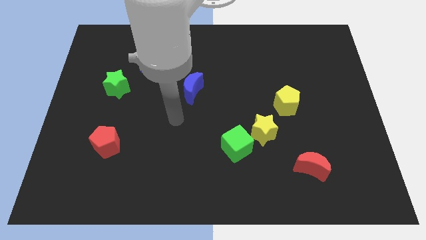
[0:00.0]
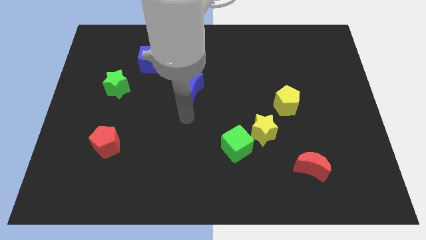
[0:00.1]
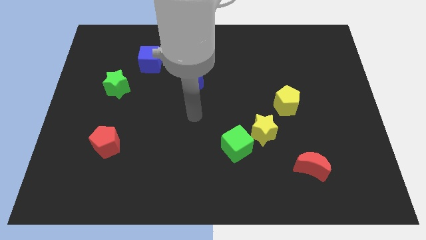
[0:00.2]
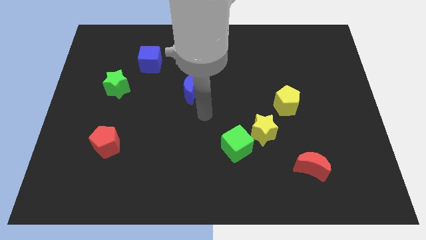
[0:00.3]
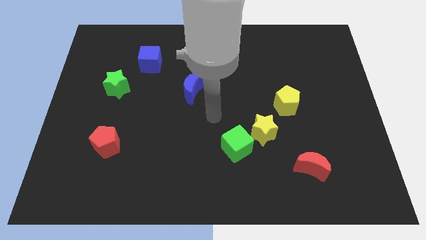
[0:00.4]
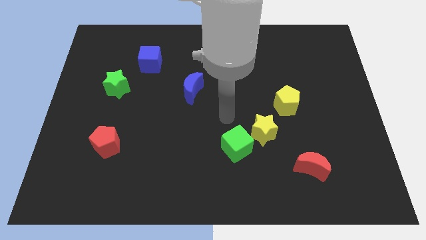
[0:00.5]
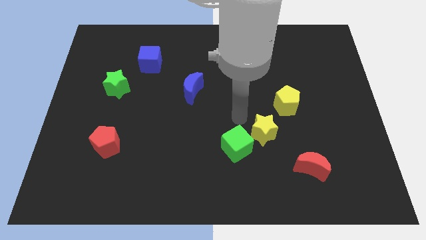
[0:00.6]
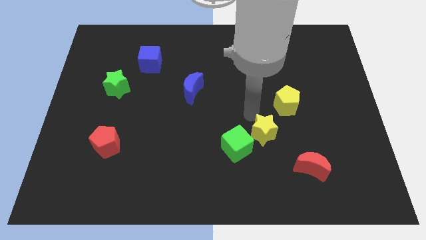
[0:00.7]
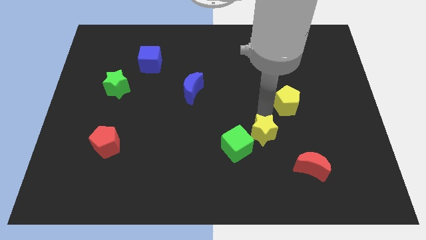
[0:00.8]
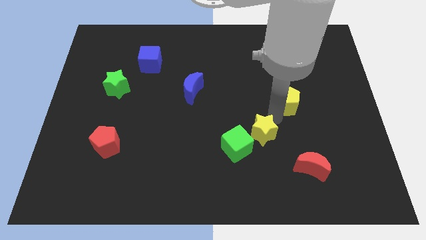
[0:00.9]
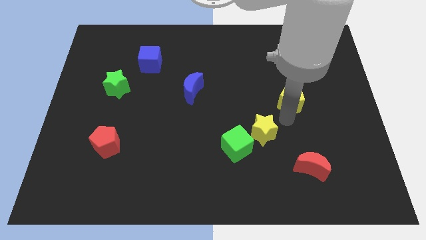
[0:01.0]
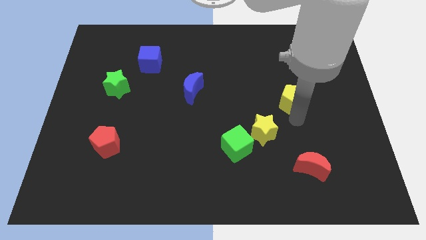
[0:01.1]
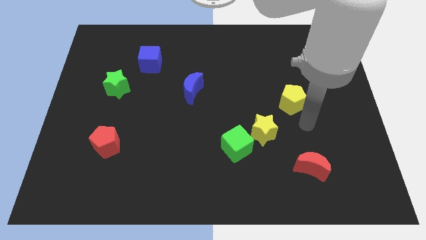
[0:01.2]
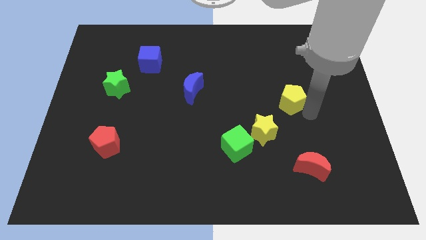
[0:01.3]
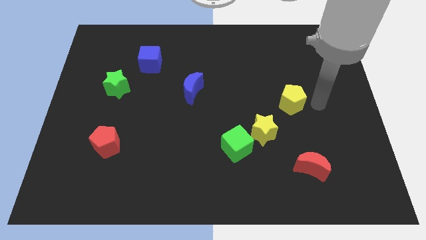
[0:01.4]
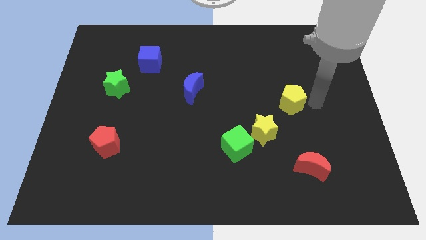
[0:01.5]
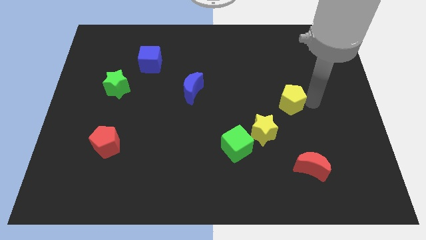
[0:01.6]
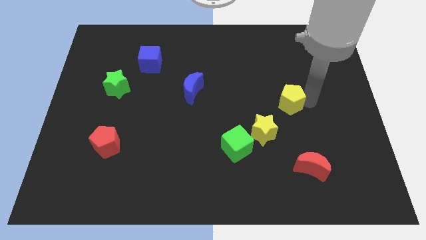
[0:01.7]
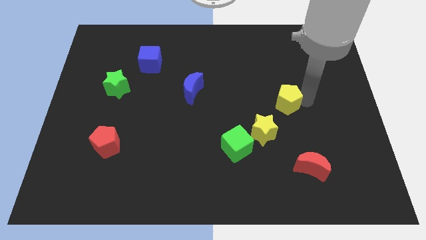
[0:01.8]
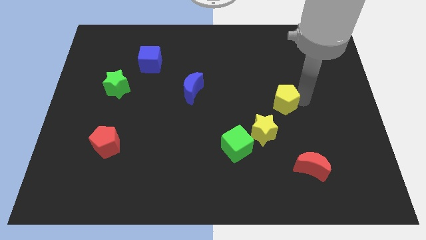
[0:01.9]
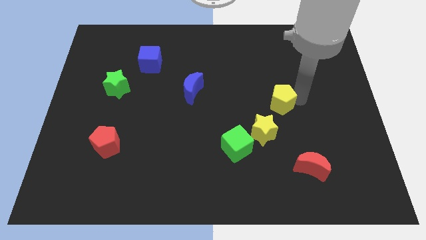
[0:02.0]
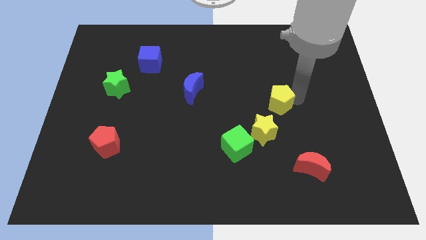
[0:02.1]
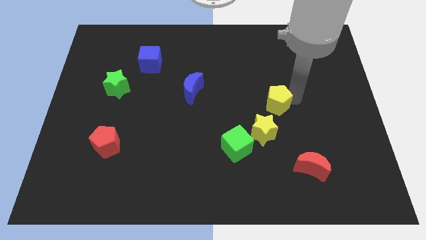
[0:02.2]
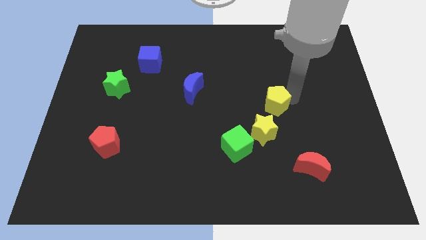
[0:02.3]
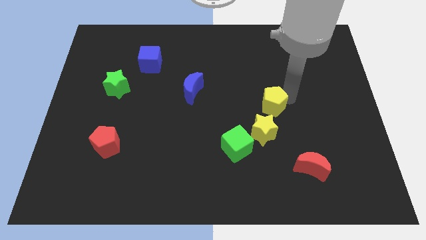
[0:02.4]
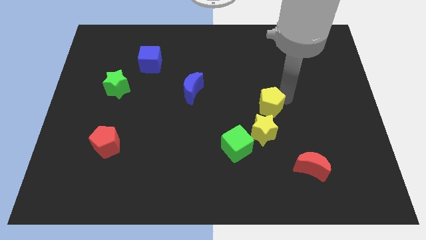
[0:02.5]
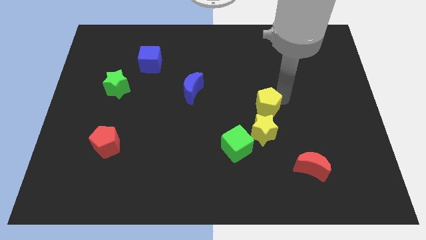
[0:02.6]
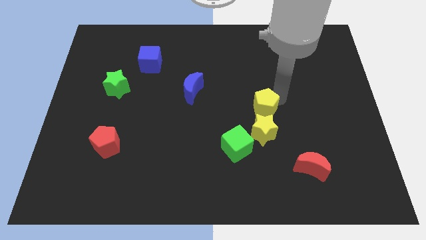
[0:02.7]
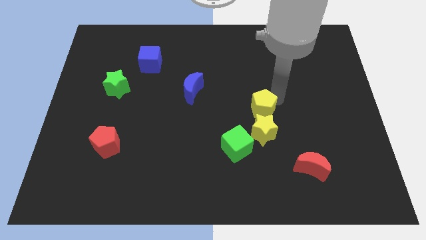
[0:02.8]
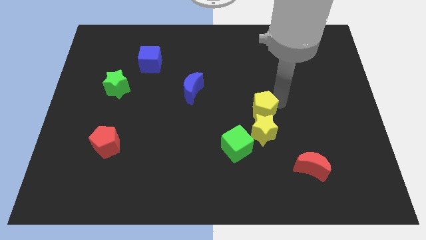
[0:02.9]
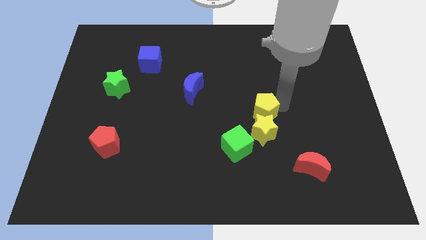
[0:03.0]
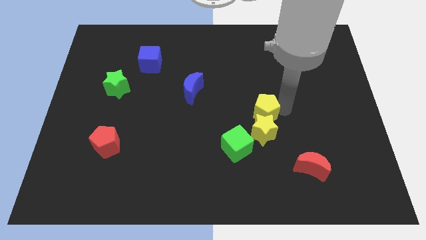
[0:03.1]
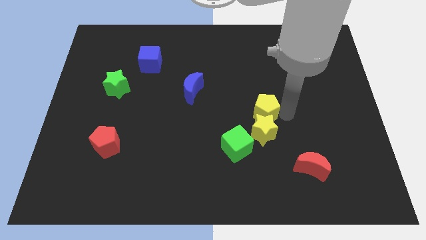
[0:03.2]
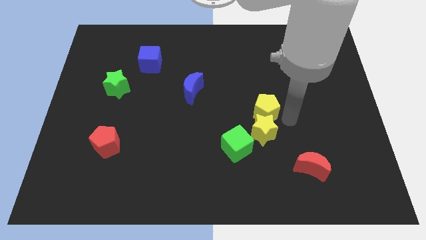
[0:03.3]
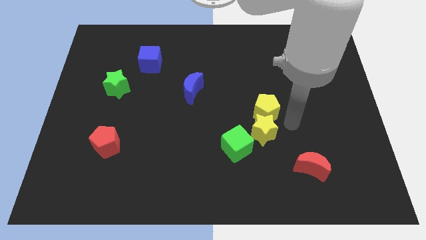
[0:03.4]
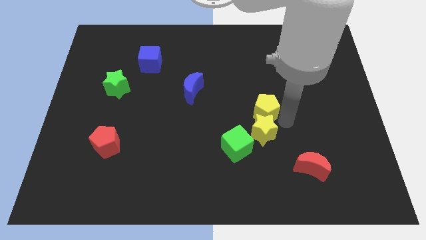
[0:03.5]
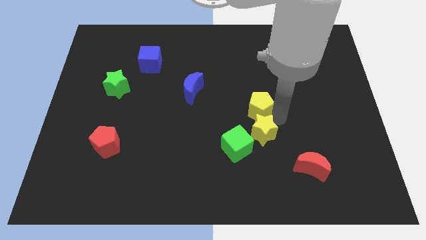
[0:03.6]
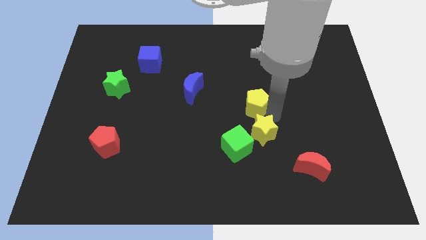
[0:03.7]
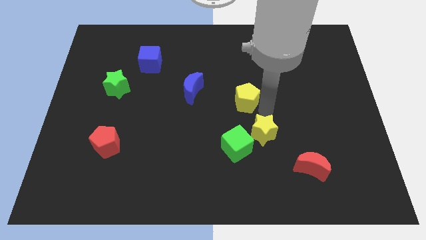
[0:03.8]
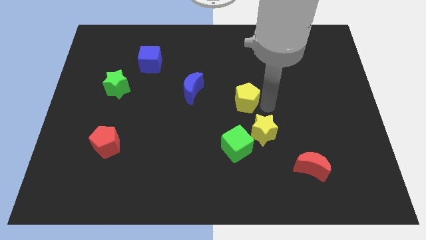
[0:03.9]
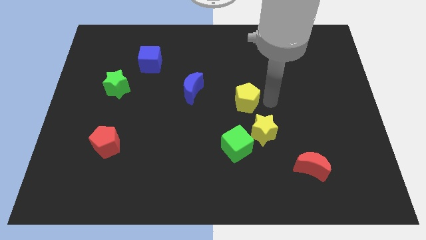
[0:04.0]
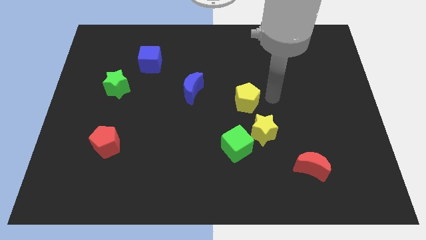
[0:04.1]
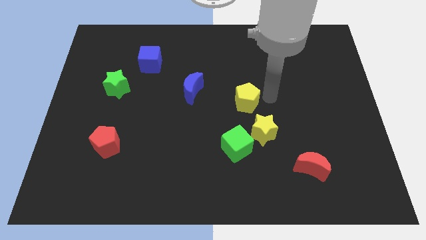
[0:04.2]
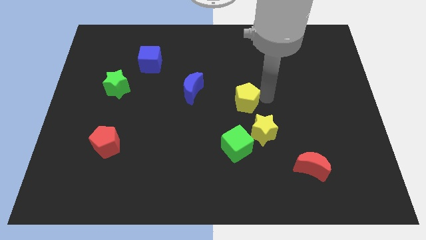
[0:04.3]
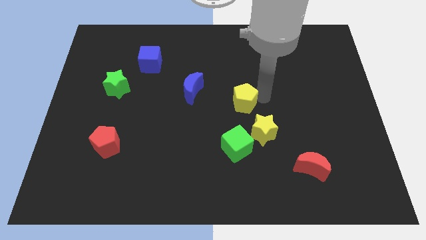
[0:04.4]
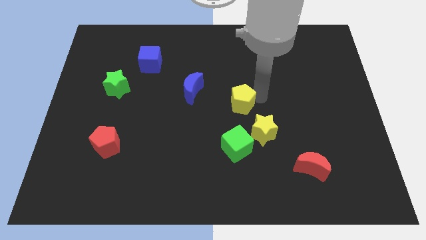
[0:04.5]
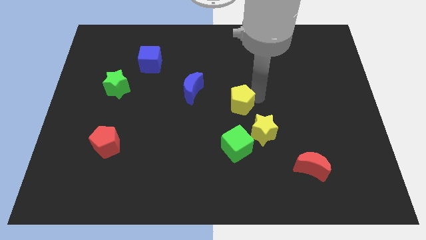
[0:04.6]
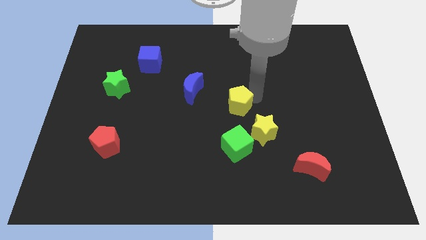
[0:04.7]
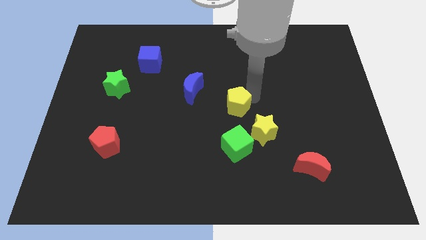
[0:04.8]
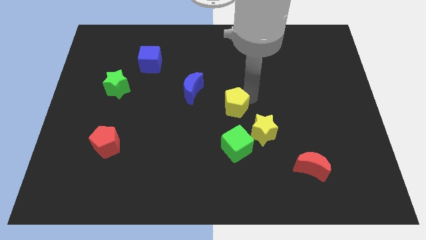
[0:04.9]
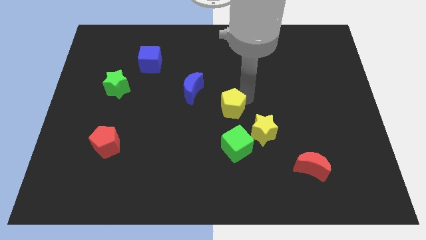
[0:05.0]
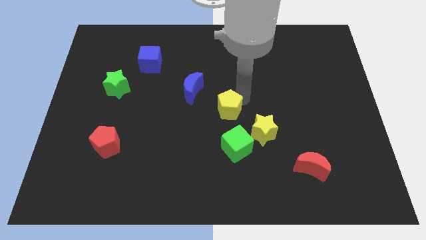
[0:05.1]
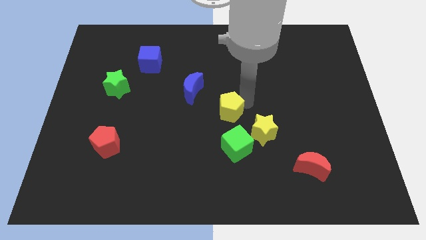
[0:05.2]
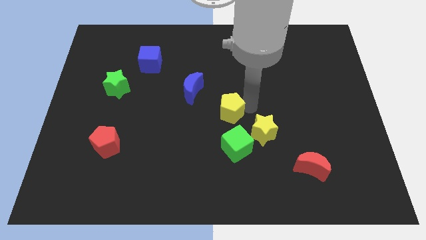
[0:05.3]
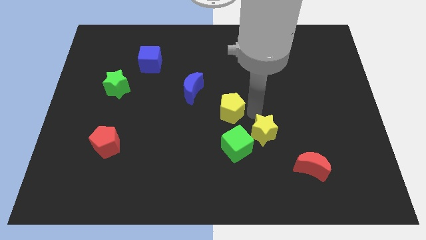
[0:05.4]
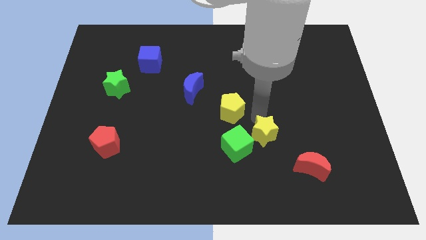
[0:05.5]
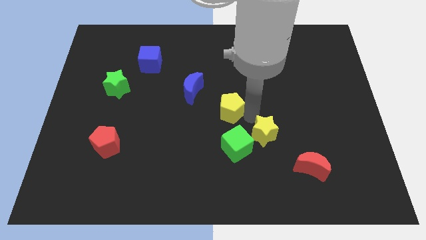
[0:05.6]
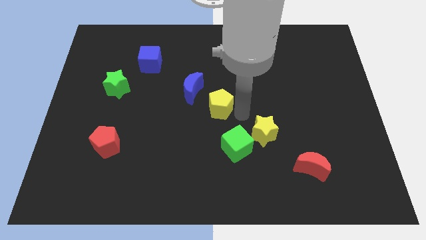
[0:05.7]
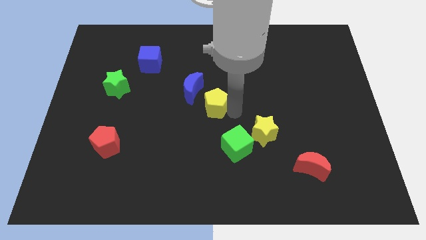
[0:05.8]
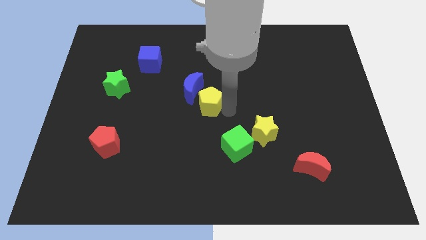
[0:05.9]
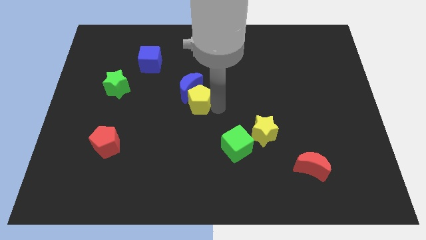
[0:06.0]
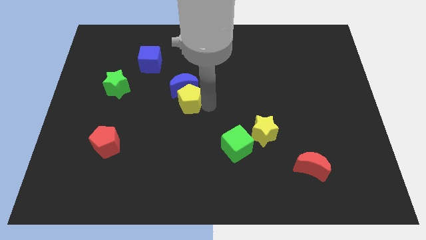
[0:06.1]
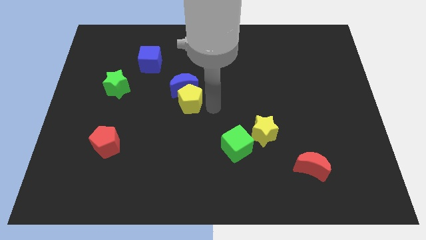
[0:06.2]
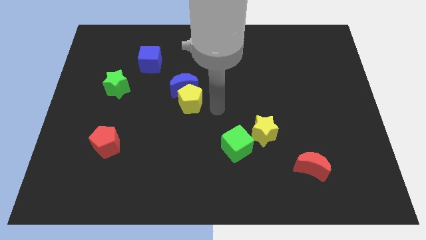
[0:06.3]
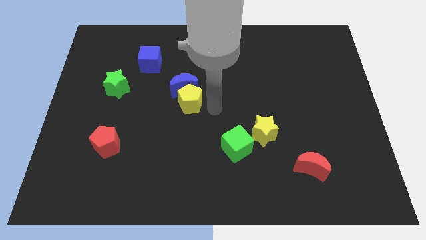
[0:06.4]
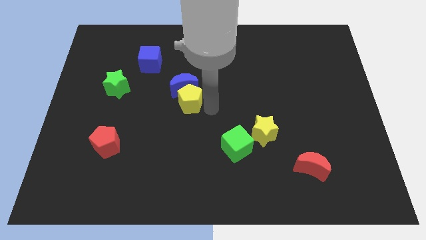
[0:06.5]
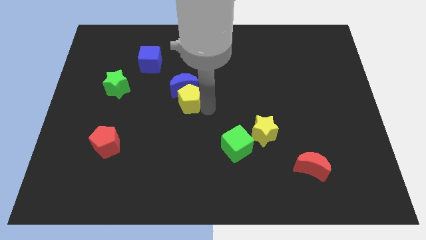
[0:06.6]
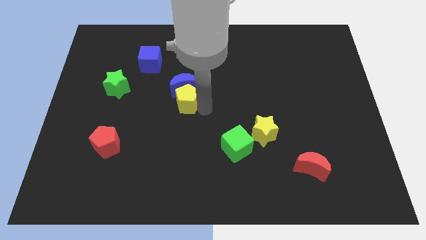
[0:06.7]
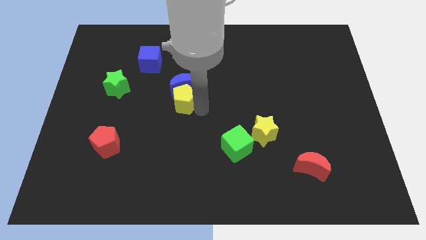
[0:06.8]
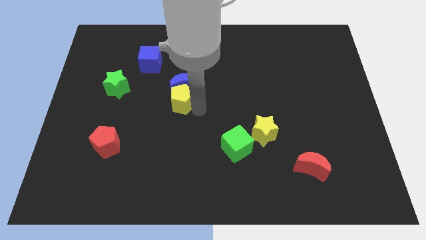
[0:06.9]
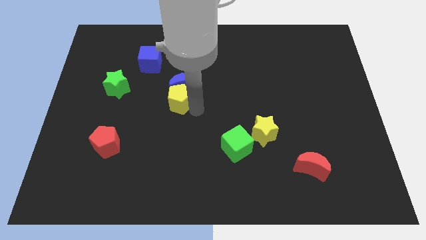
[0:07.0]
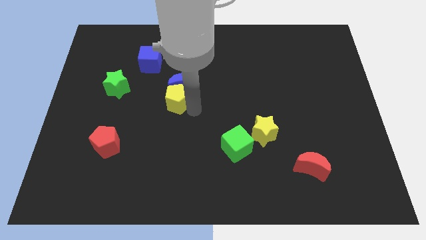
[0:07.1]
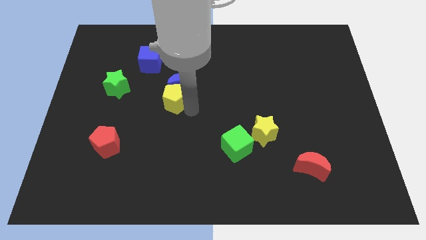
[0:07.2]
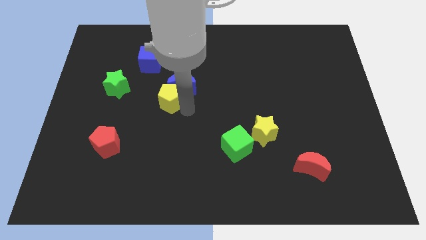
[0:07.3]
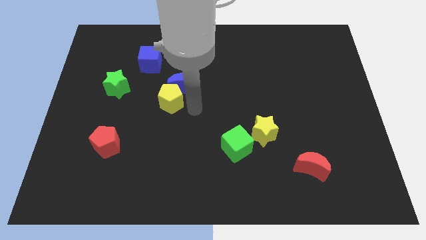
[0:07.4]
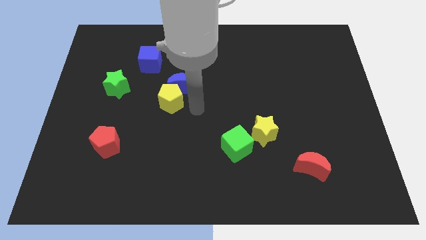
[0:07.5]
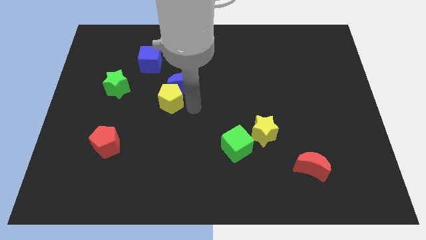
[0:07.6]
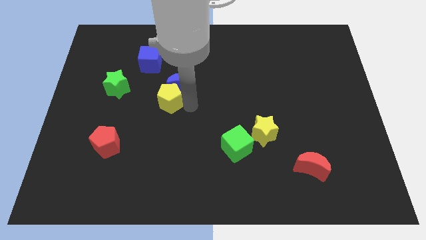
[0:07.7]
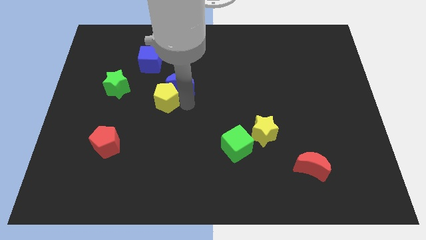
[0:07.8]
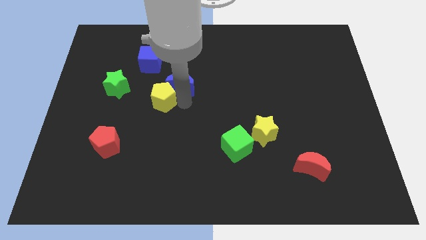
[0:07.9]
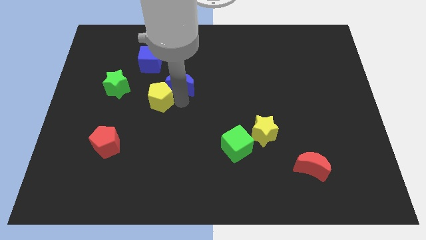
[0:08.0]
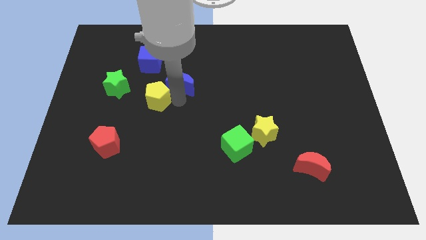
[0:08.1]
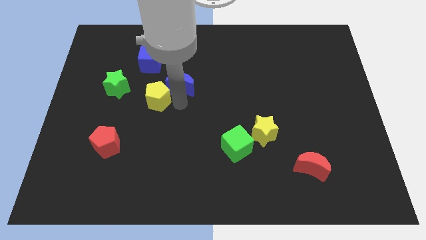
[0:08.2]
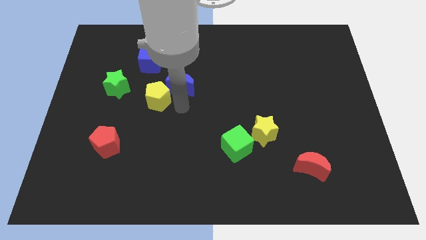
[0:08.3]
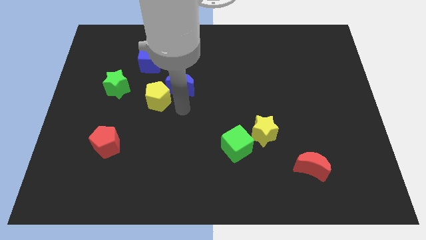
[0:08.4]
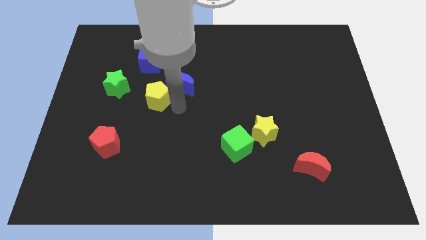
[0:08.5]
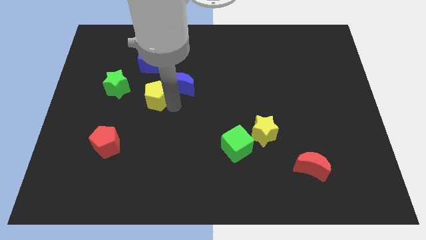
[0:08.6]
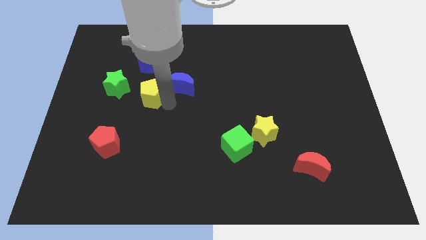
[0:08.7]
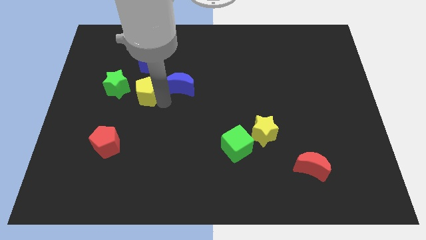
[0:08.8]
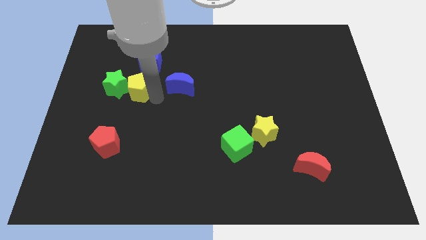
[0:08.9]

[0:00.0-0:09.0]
push the yellow pentagon to the green star
